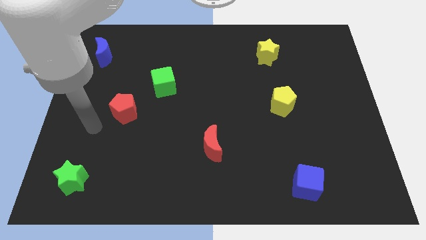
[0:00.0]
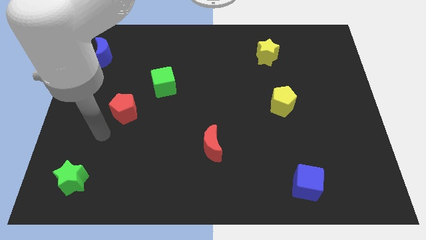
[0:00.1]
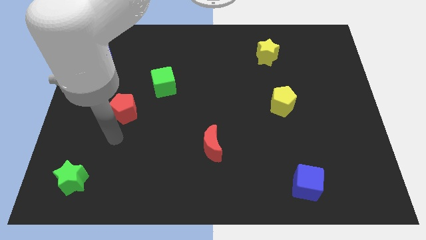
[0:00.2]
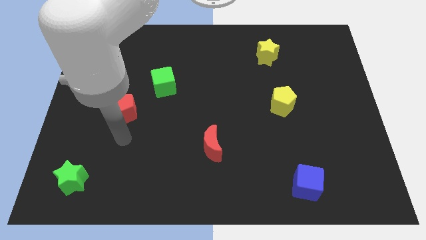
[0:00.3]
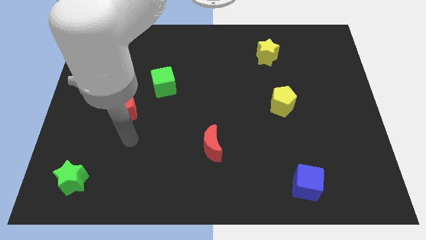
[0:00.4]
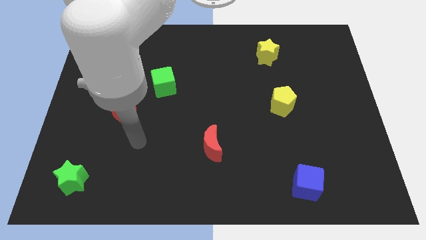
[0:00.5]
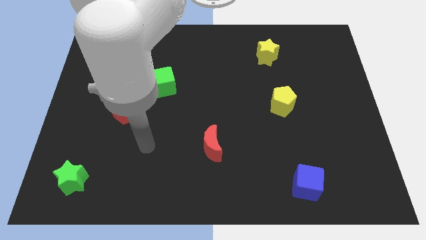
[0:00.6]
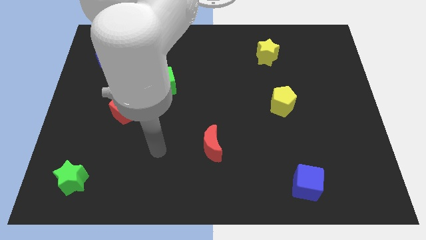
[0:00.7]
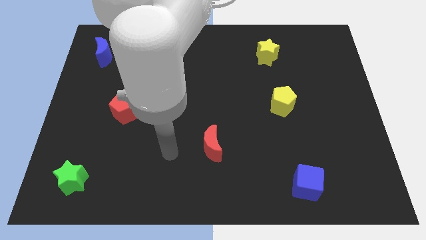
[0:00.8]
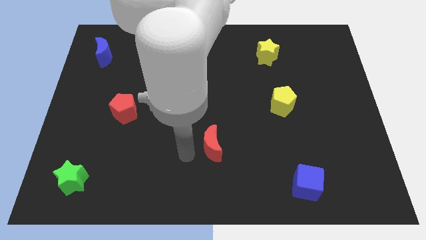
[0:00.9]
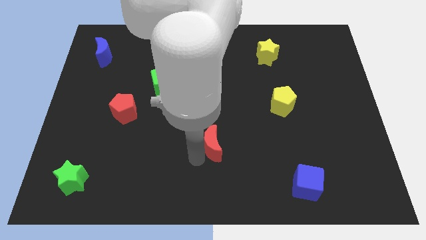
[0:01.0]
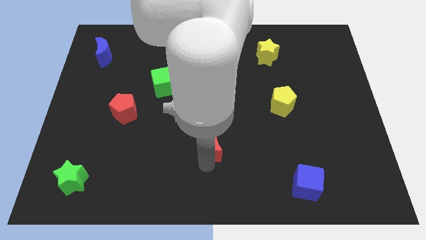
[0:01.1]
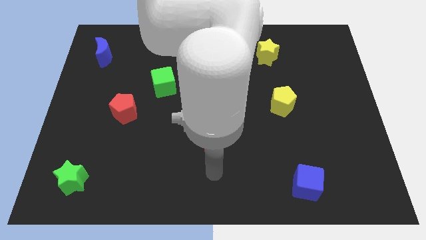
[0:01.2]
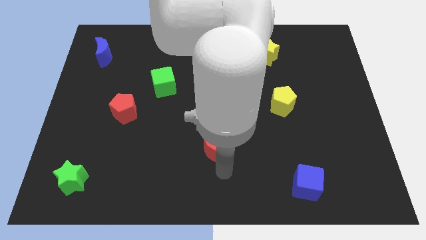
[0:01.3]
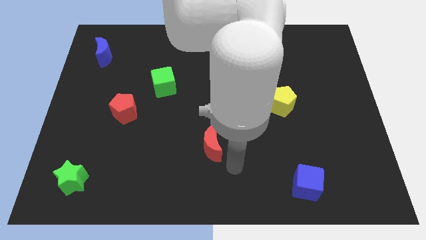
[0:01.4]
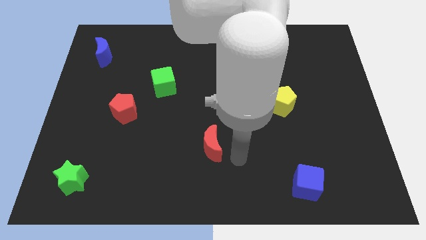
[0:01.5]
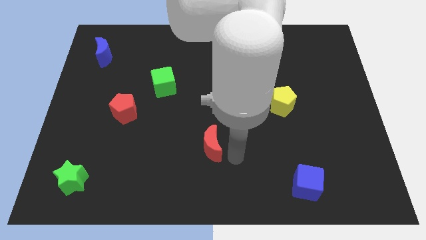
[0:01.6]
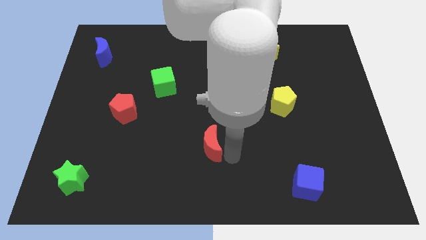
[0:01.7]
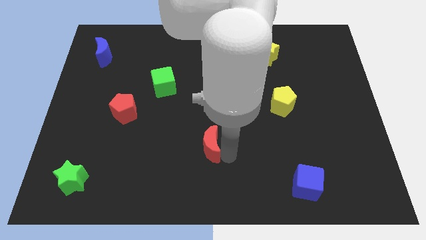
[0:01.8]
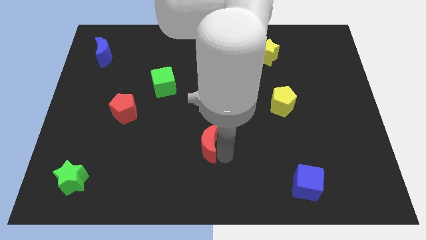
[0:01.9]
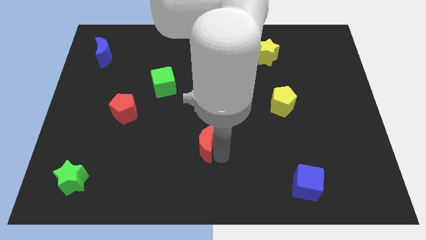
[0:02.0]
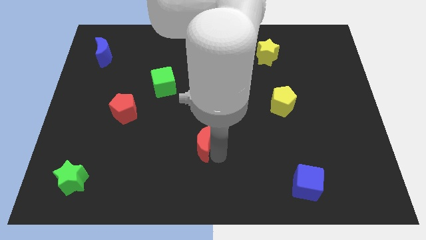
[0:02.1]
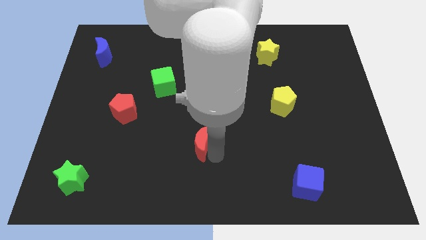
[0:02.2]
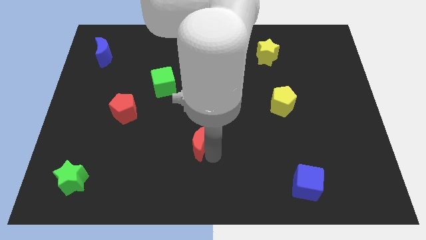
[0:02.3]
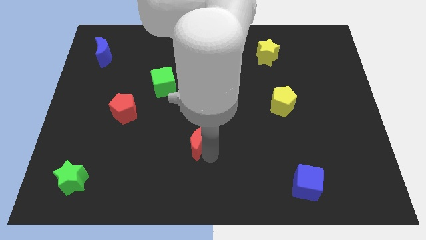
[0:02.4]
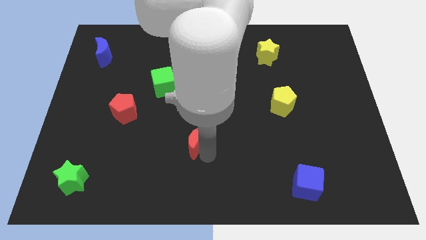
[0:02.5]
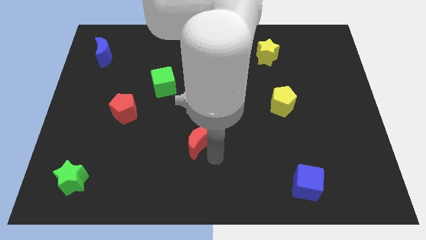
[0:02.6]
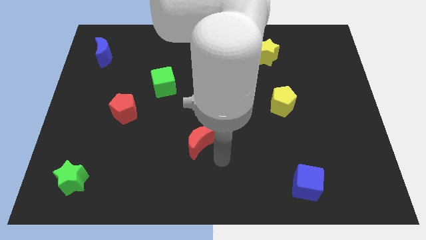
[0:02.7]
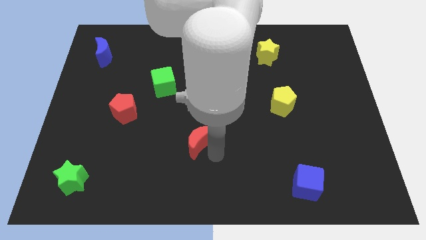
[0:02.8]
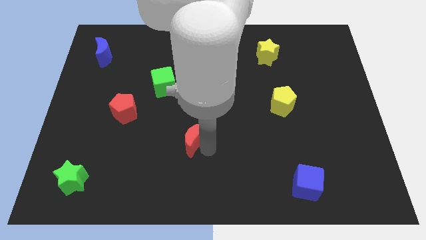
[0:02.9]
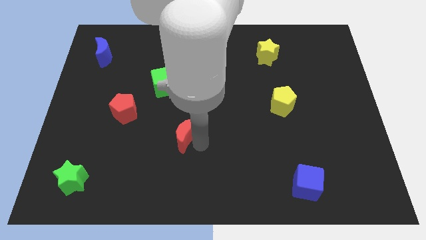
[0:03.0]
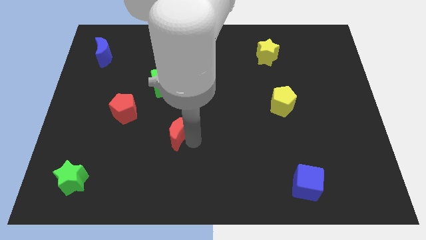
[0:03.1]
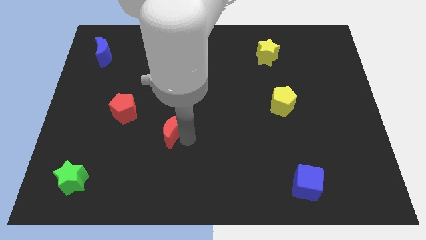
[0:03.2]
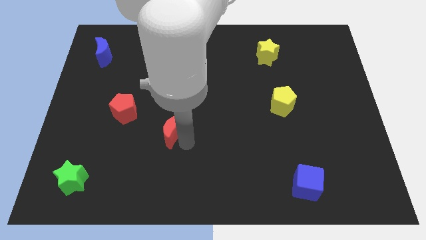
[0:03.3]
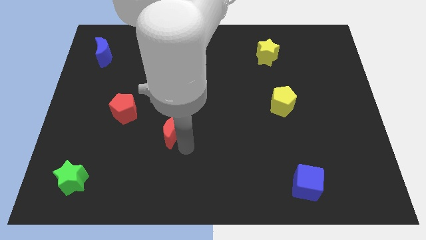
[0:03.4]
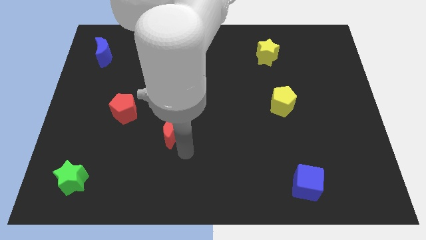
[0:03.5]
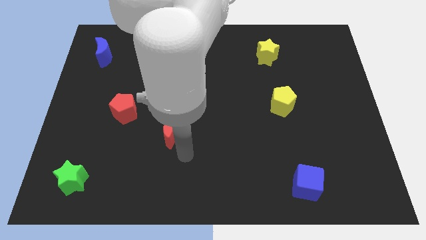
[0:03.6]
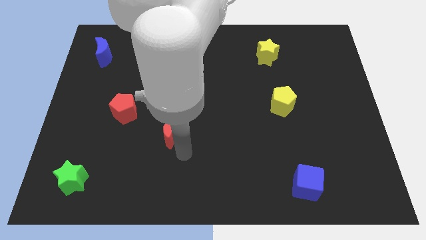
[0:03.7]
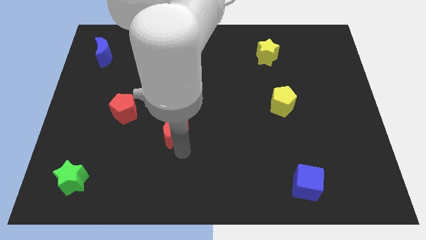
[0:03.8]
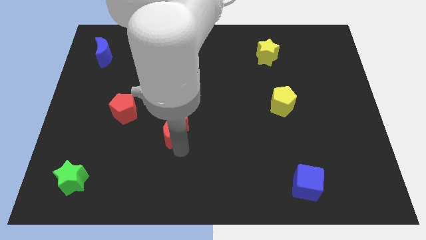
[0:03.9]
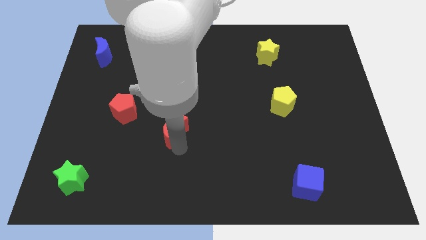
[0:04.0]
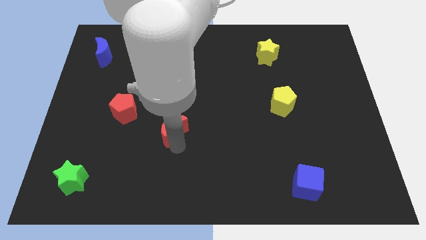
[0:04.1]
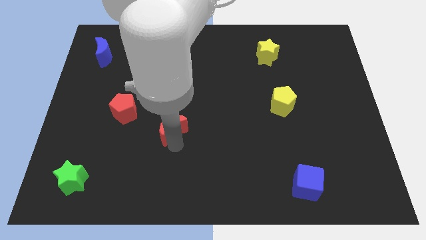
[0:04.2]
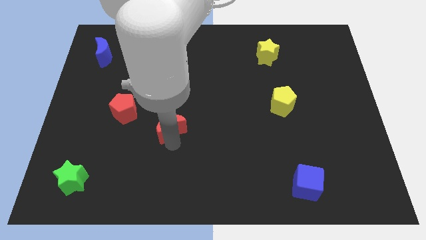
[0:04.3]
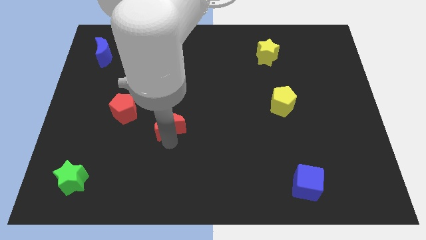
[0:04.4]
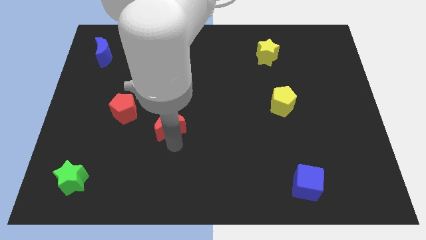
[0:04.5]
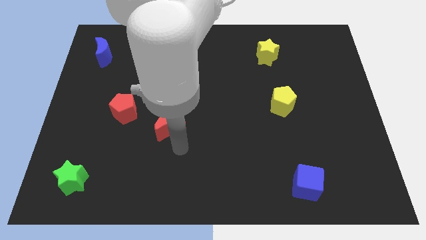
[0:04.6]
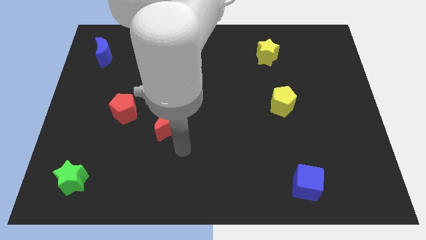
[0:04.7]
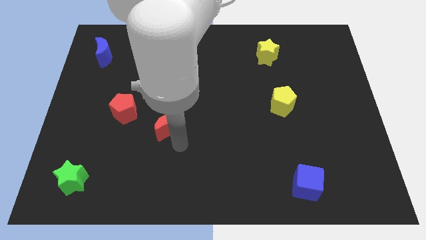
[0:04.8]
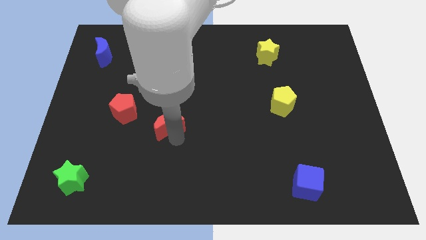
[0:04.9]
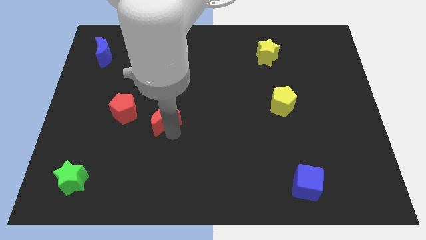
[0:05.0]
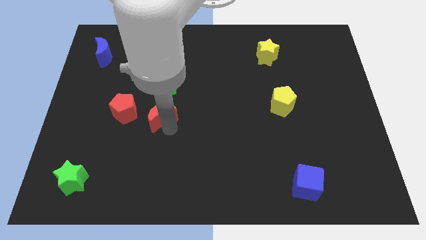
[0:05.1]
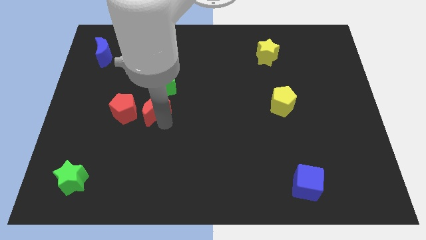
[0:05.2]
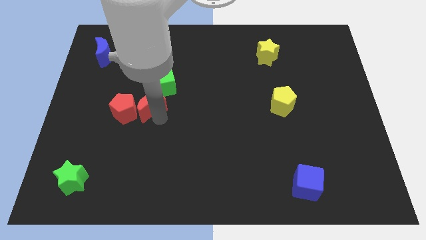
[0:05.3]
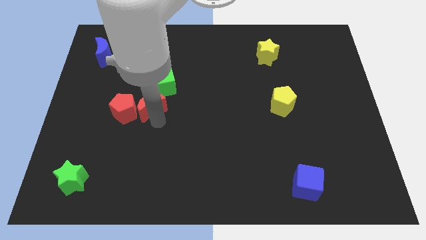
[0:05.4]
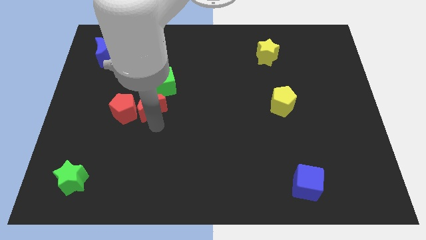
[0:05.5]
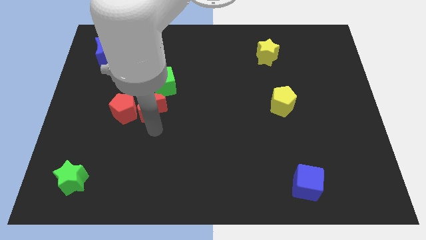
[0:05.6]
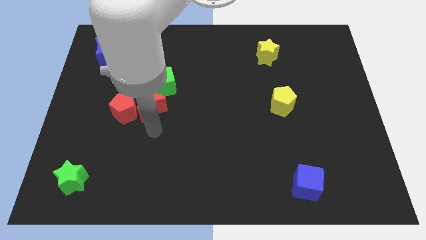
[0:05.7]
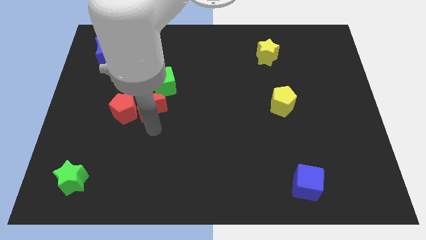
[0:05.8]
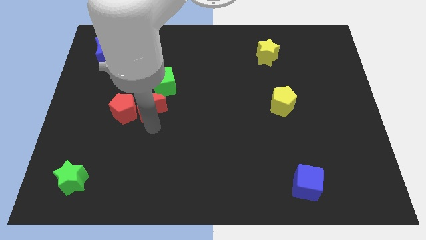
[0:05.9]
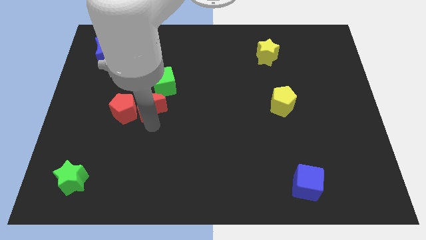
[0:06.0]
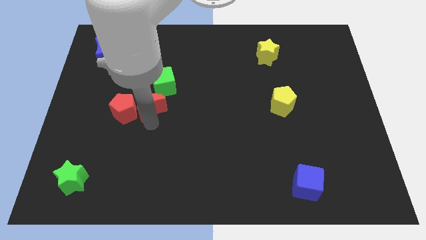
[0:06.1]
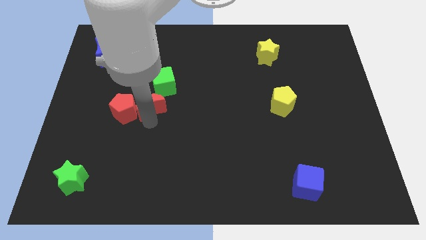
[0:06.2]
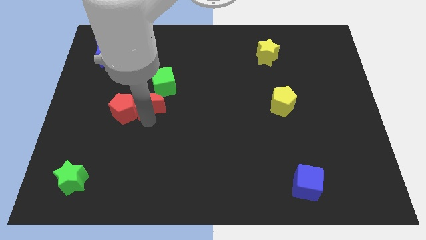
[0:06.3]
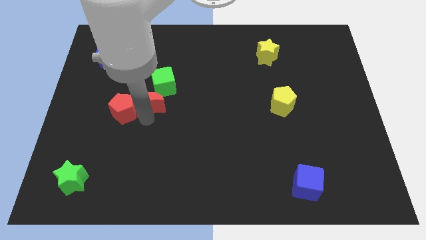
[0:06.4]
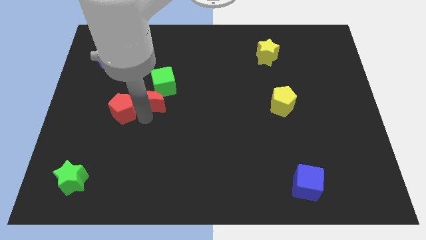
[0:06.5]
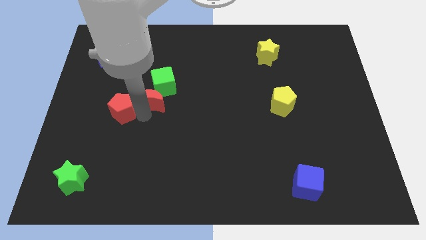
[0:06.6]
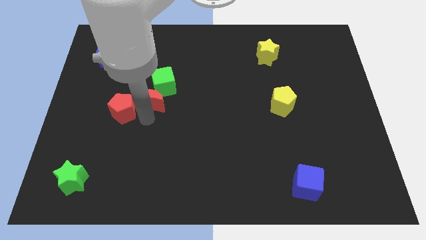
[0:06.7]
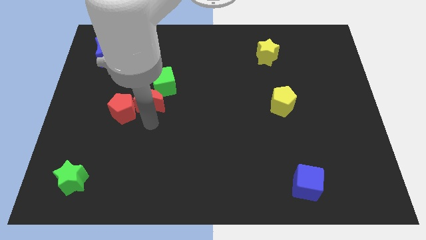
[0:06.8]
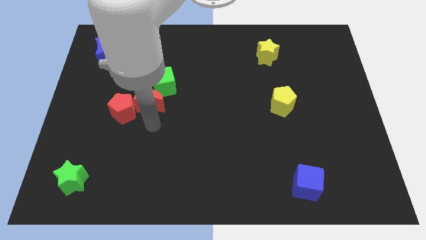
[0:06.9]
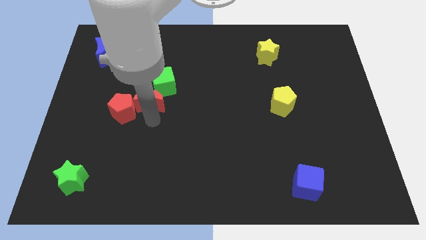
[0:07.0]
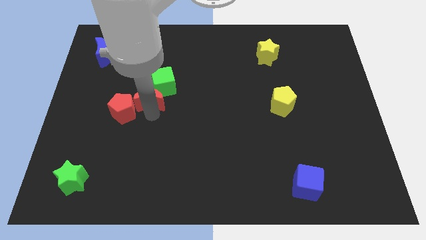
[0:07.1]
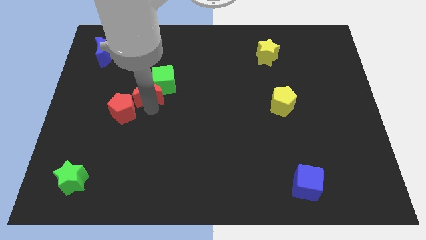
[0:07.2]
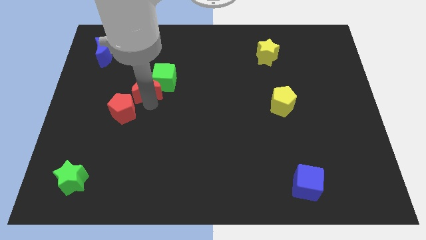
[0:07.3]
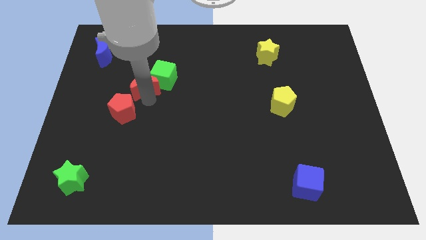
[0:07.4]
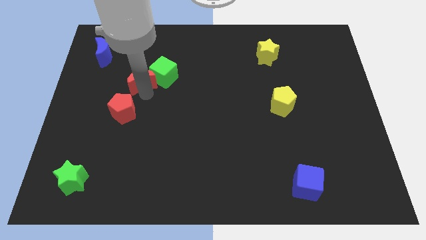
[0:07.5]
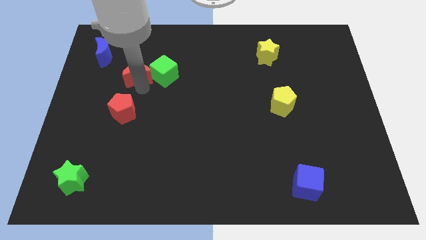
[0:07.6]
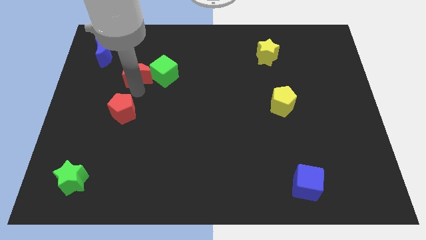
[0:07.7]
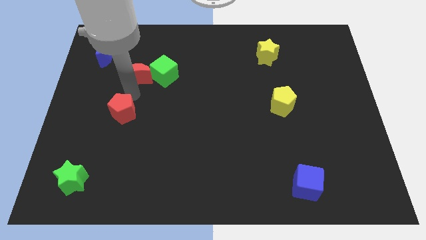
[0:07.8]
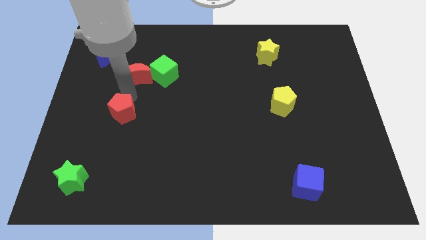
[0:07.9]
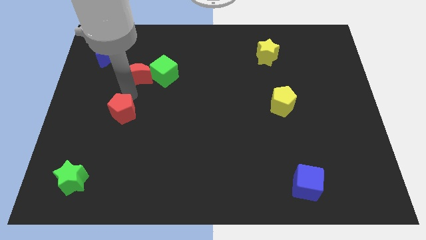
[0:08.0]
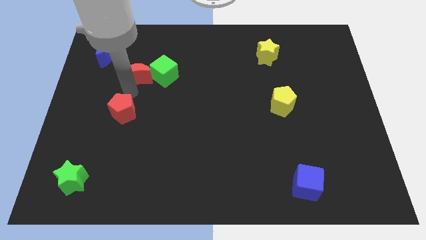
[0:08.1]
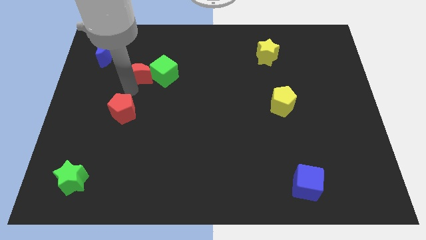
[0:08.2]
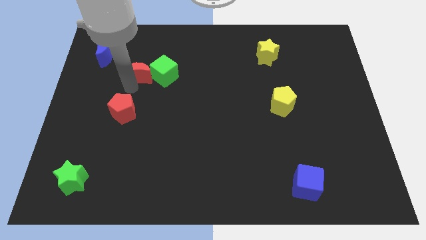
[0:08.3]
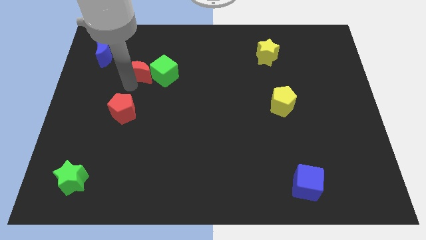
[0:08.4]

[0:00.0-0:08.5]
push the red moon to the top left of the green cube
